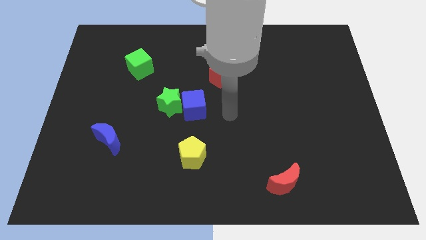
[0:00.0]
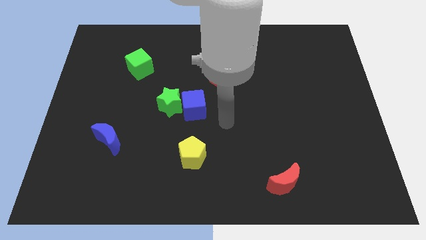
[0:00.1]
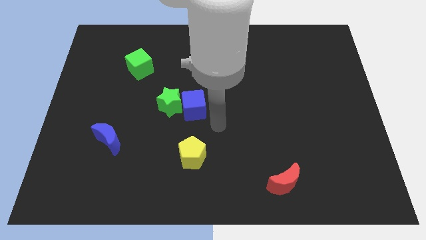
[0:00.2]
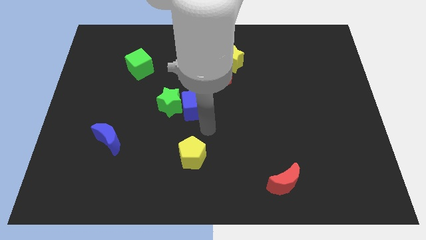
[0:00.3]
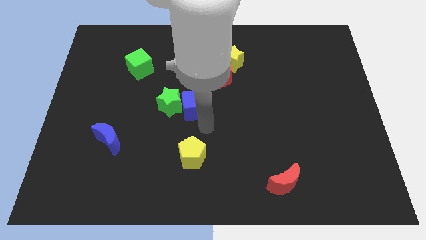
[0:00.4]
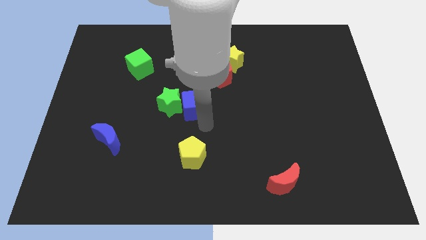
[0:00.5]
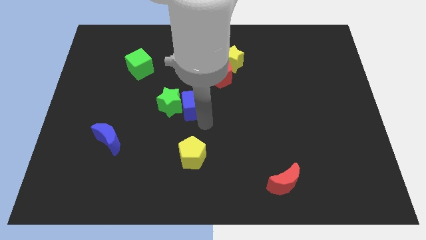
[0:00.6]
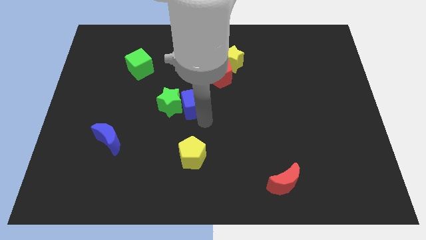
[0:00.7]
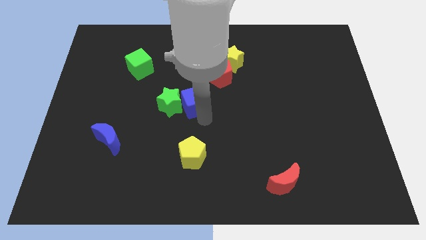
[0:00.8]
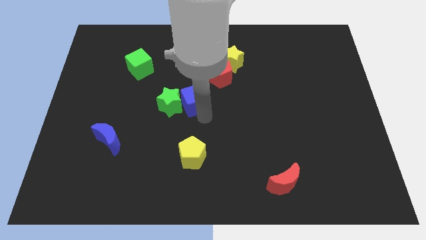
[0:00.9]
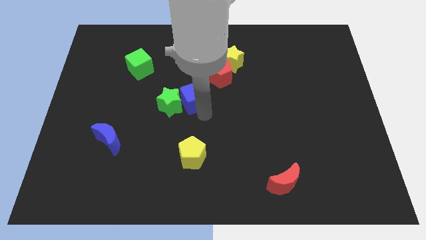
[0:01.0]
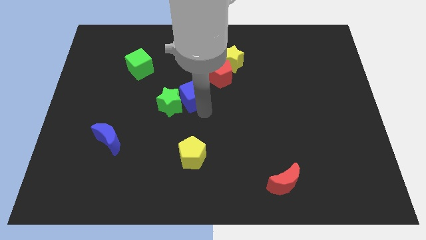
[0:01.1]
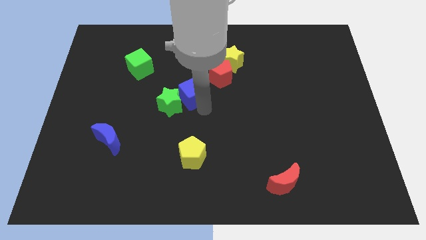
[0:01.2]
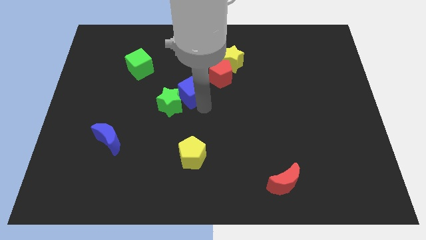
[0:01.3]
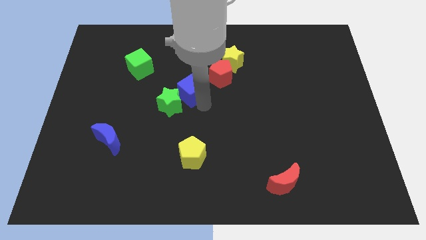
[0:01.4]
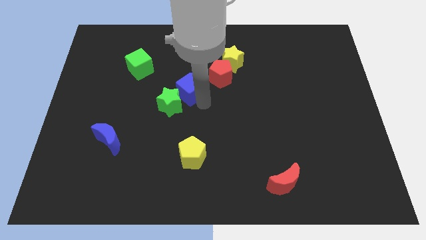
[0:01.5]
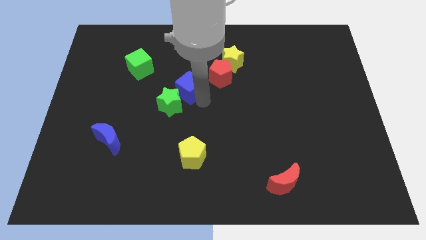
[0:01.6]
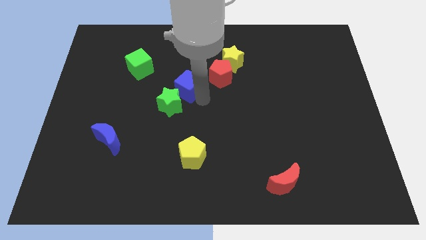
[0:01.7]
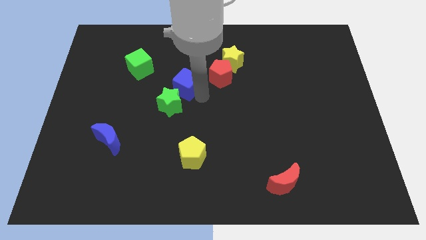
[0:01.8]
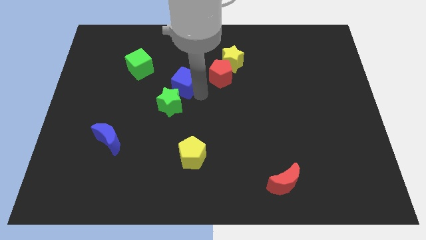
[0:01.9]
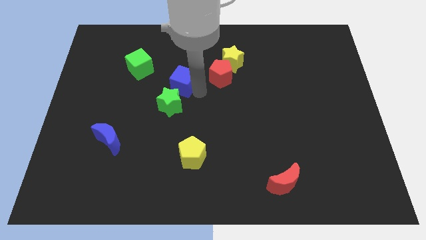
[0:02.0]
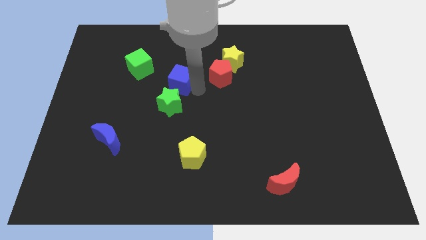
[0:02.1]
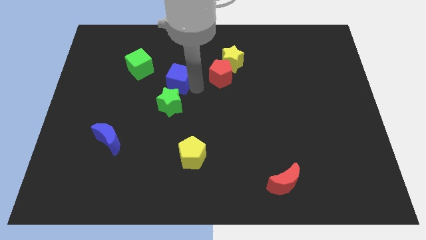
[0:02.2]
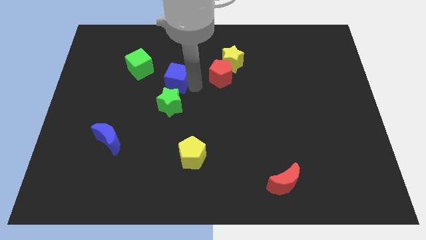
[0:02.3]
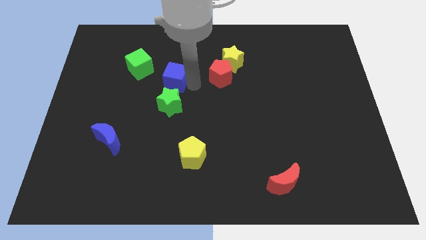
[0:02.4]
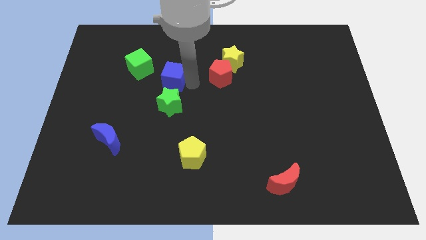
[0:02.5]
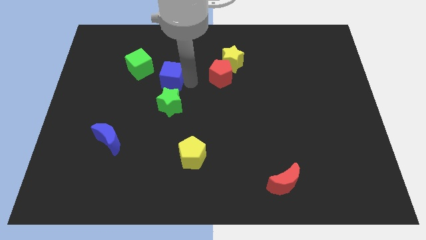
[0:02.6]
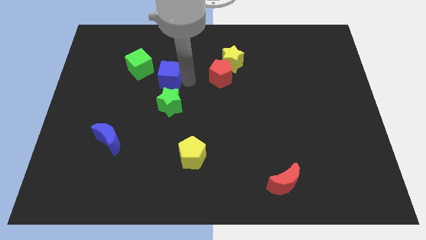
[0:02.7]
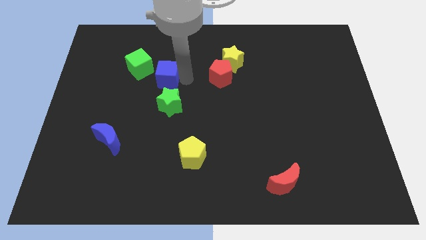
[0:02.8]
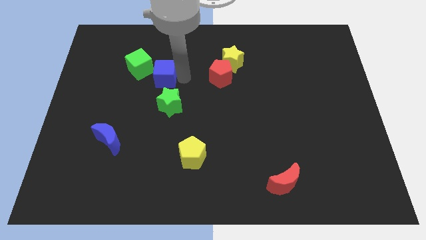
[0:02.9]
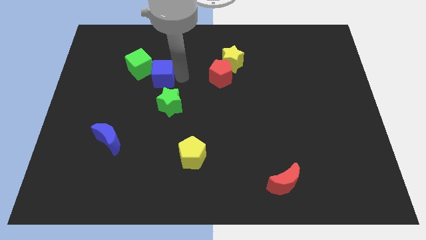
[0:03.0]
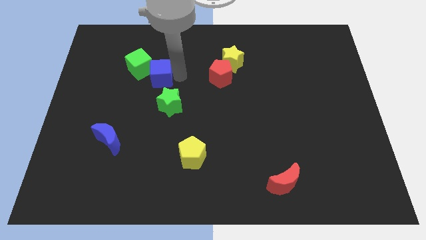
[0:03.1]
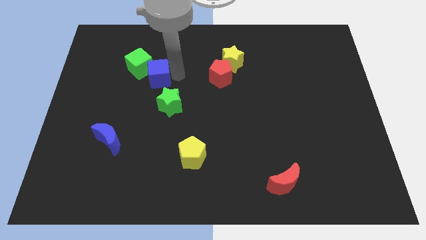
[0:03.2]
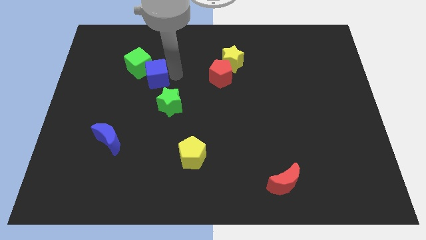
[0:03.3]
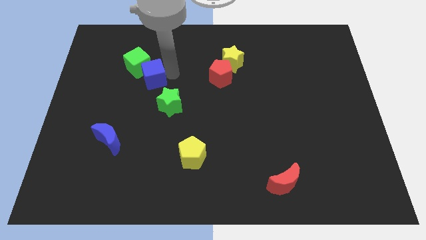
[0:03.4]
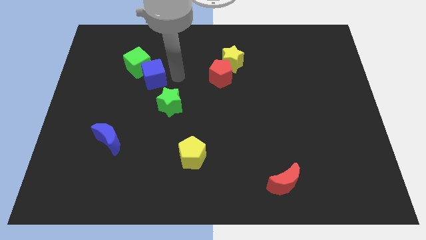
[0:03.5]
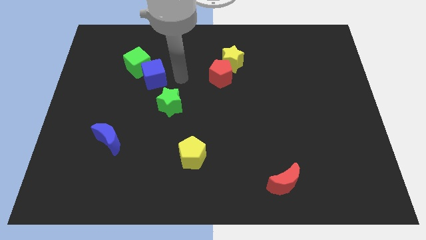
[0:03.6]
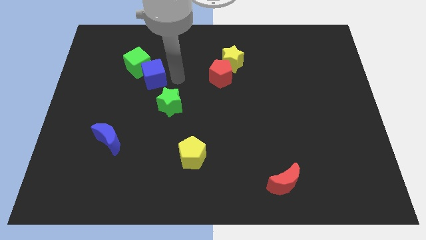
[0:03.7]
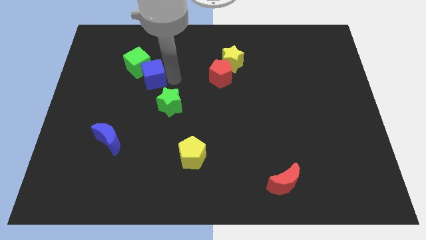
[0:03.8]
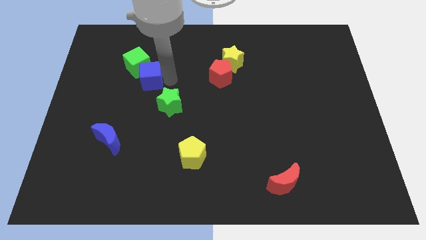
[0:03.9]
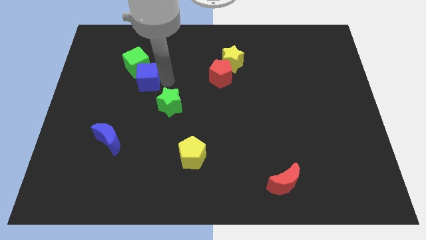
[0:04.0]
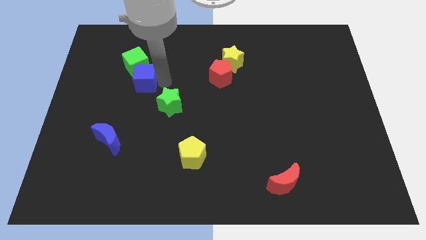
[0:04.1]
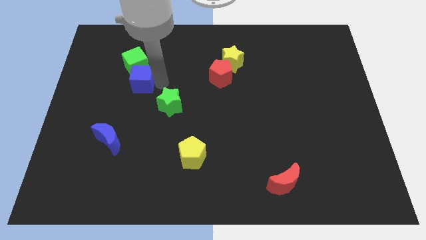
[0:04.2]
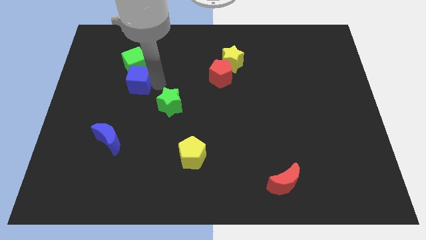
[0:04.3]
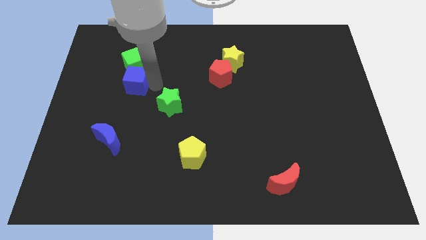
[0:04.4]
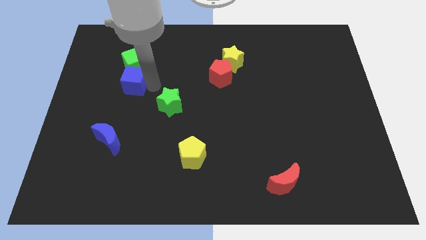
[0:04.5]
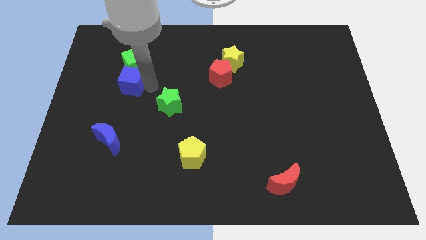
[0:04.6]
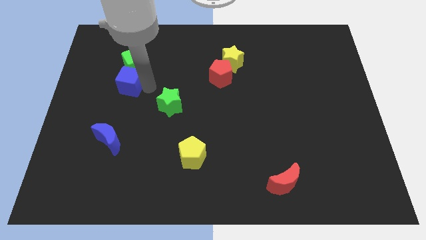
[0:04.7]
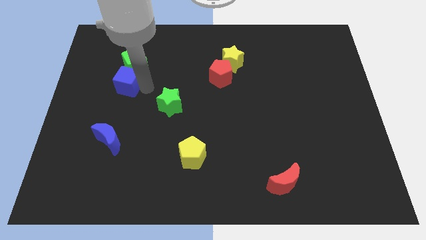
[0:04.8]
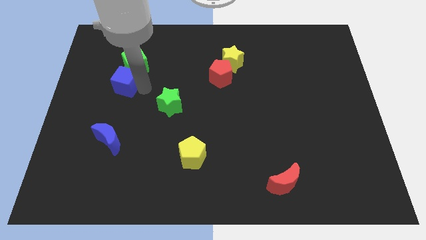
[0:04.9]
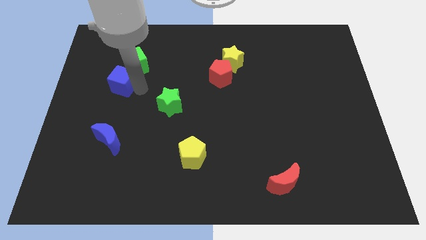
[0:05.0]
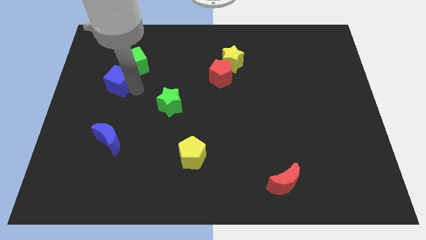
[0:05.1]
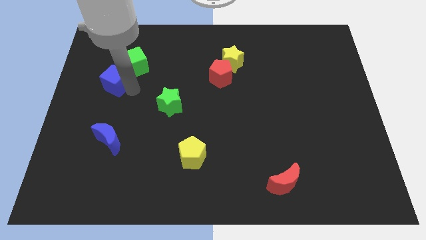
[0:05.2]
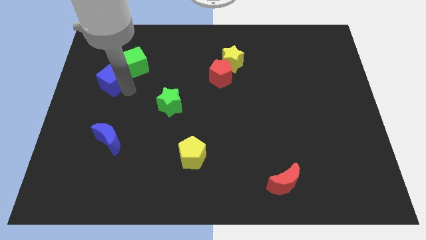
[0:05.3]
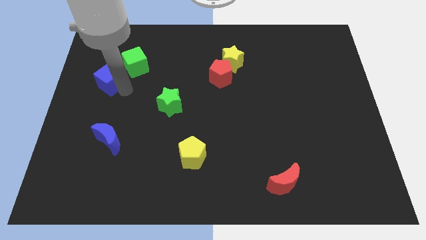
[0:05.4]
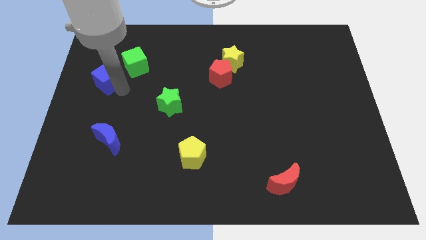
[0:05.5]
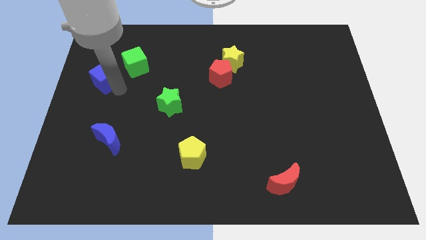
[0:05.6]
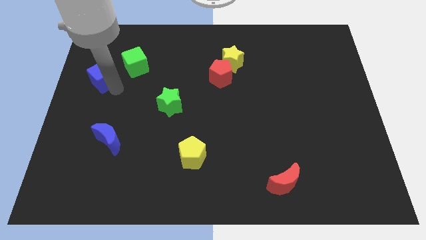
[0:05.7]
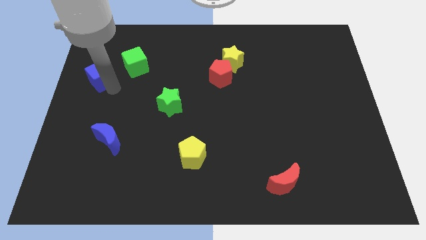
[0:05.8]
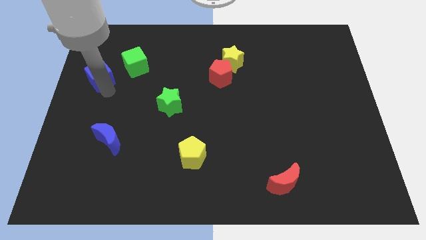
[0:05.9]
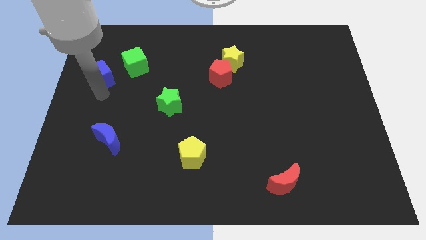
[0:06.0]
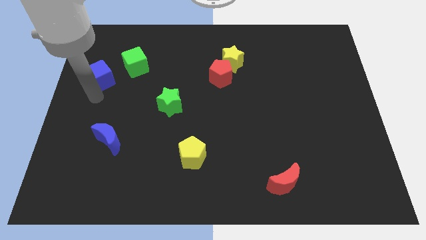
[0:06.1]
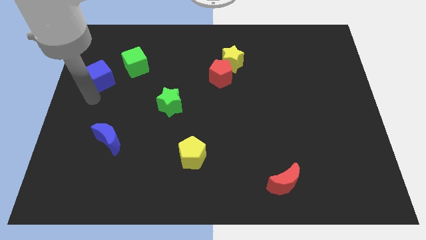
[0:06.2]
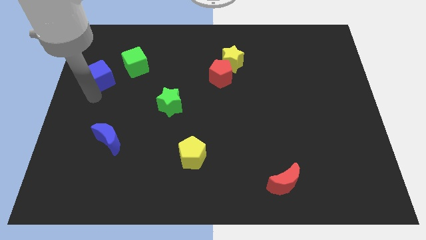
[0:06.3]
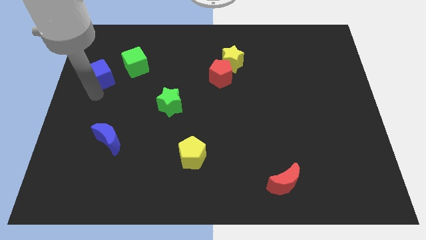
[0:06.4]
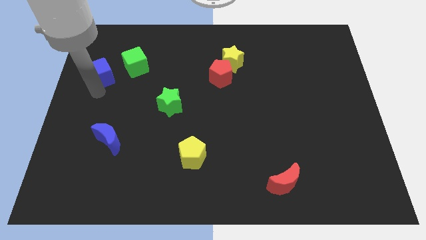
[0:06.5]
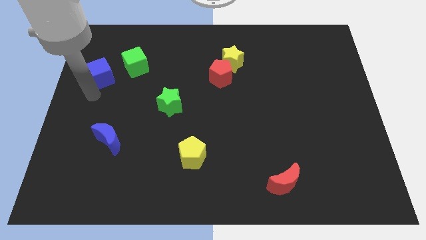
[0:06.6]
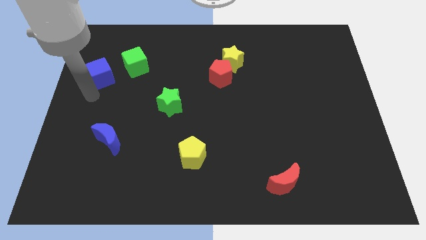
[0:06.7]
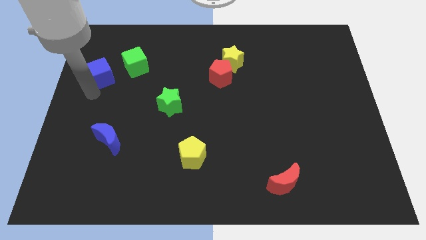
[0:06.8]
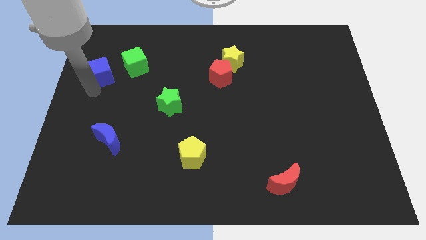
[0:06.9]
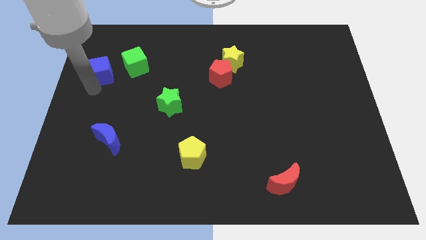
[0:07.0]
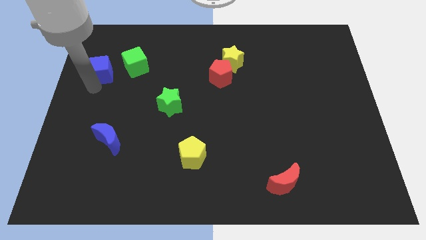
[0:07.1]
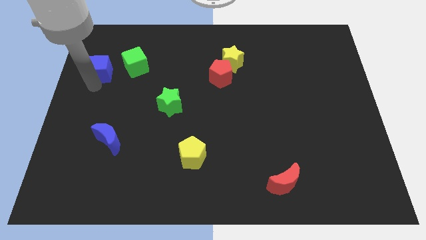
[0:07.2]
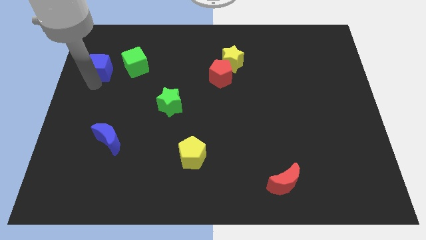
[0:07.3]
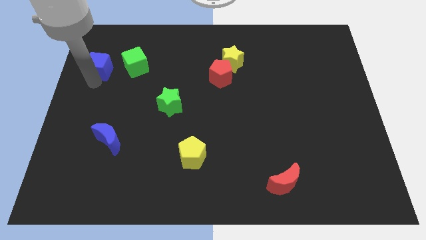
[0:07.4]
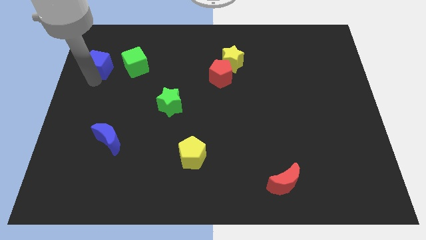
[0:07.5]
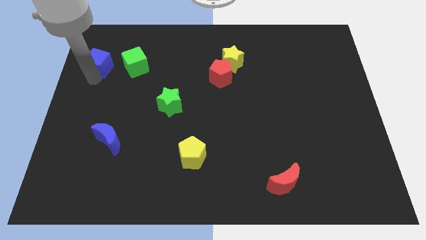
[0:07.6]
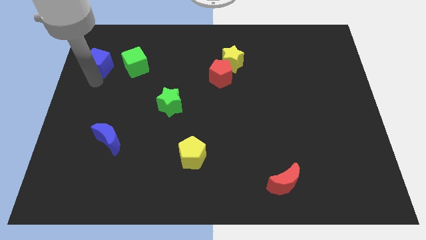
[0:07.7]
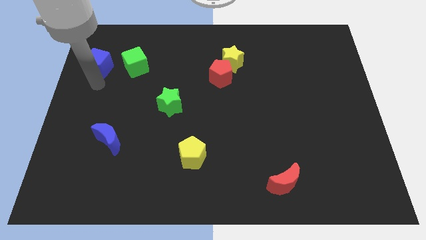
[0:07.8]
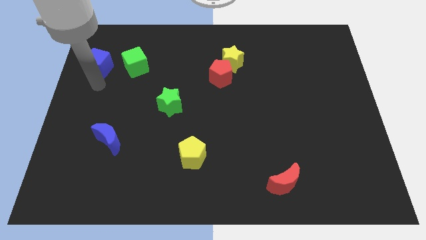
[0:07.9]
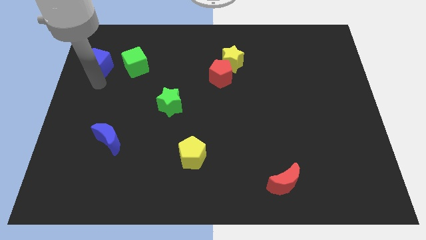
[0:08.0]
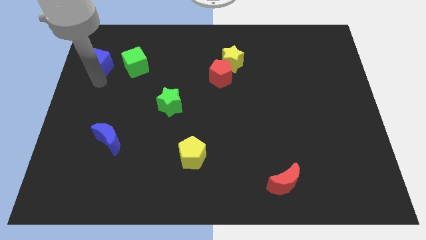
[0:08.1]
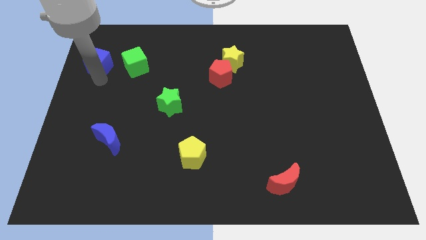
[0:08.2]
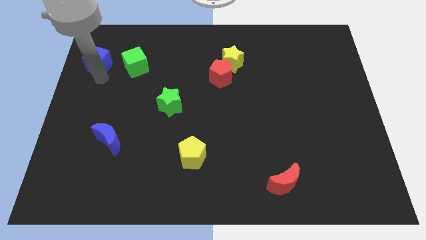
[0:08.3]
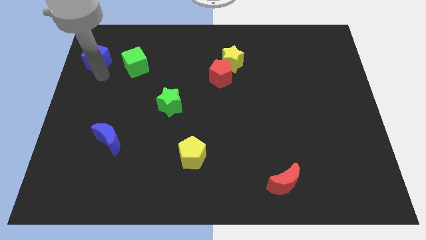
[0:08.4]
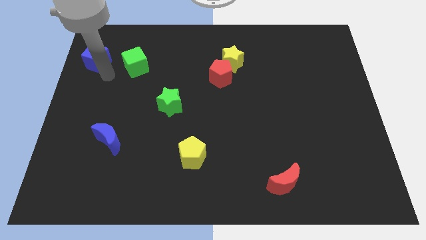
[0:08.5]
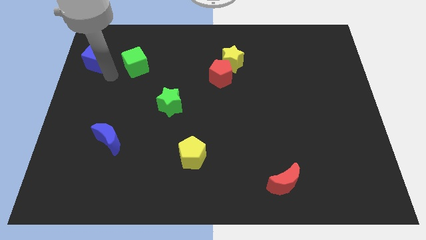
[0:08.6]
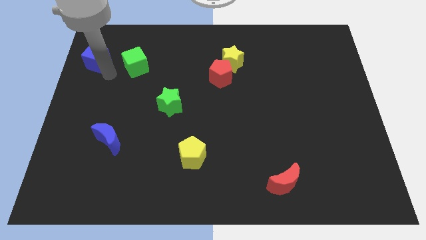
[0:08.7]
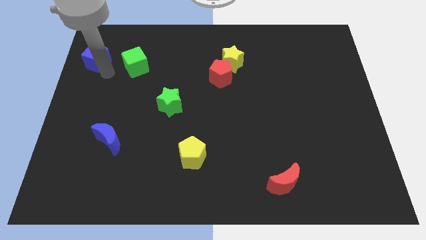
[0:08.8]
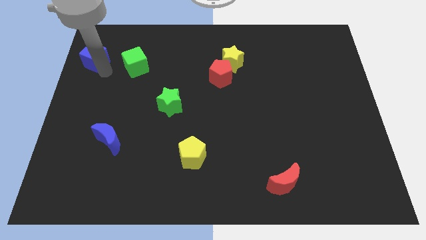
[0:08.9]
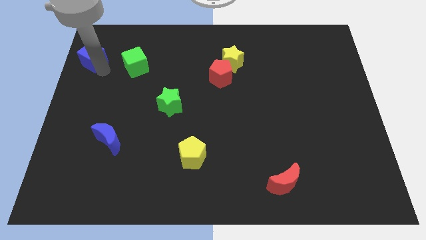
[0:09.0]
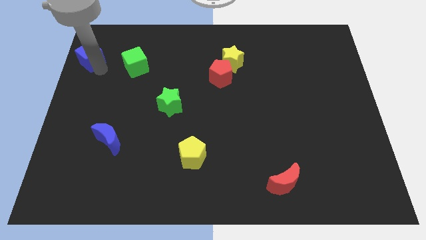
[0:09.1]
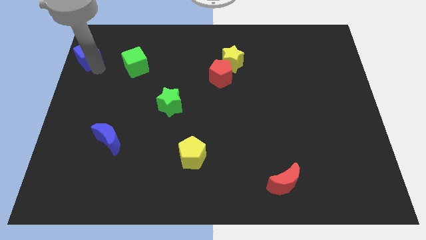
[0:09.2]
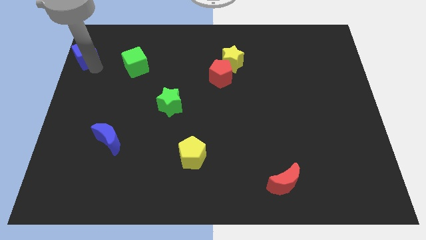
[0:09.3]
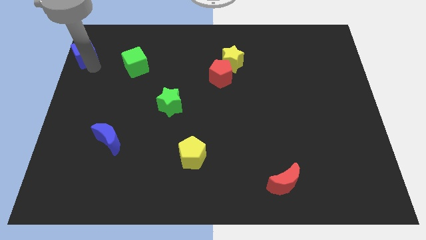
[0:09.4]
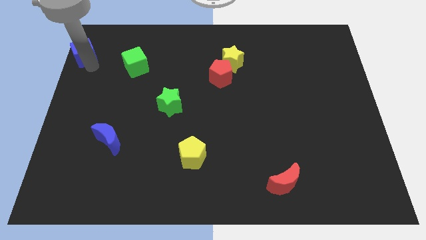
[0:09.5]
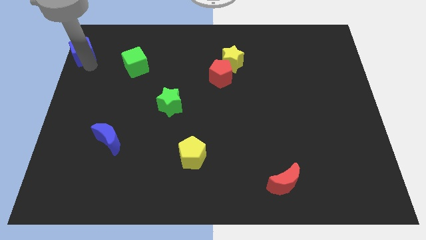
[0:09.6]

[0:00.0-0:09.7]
put the blue cube to the upper left corner
